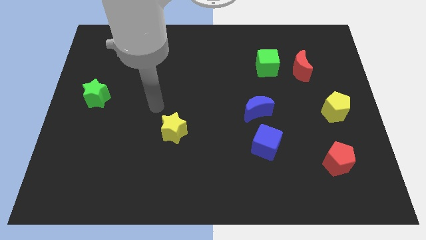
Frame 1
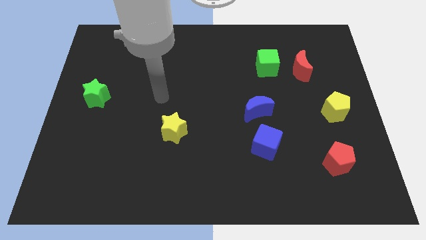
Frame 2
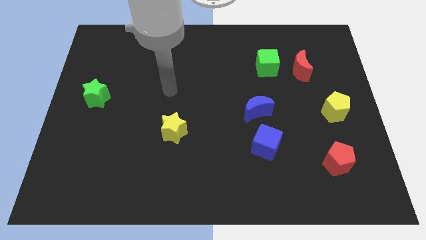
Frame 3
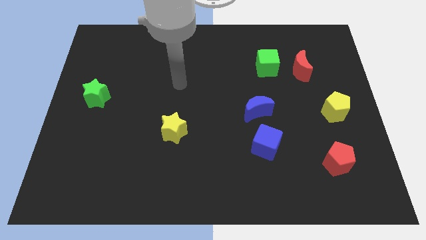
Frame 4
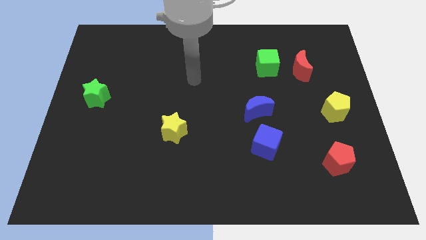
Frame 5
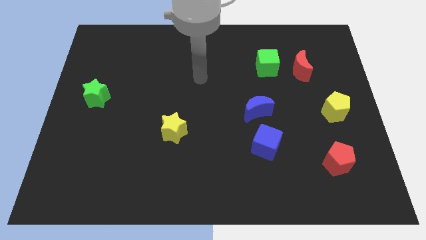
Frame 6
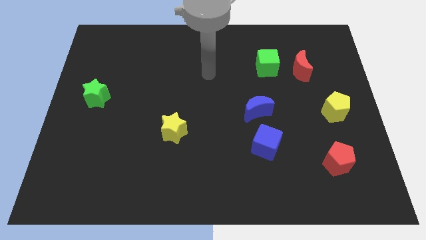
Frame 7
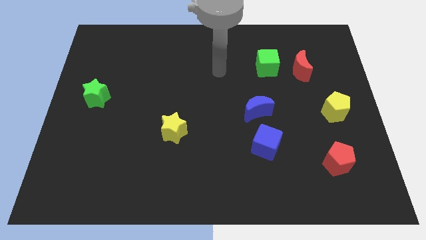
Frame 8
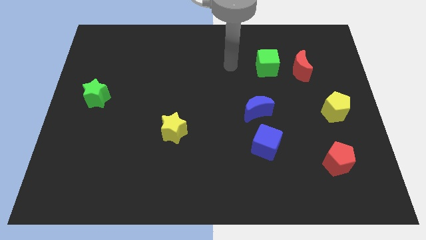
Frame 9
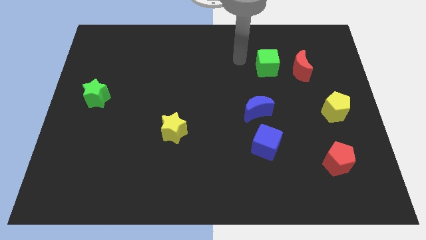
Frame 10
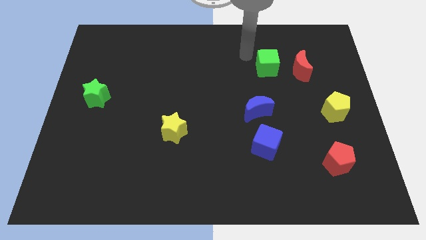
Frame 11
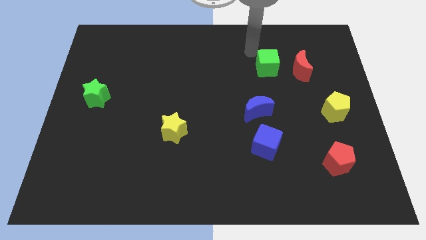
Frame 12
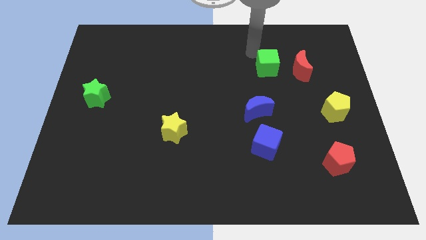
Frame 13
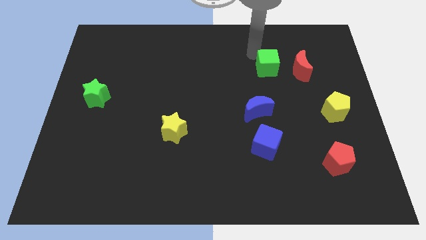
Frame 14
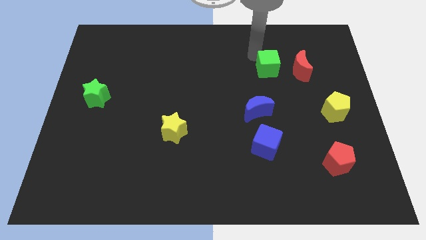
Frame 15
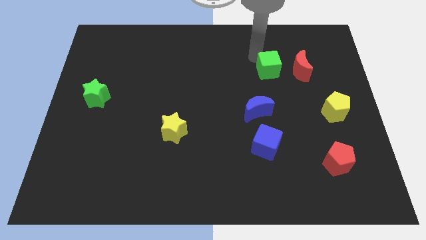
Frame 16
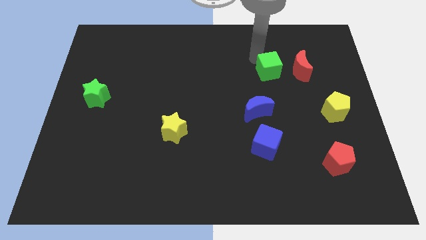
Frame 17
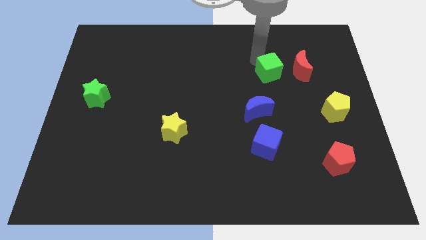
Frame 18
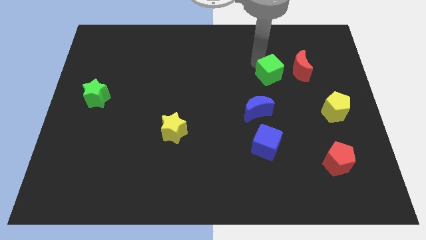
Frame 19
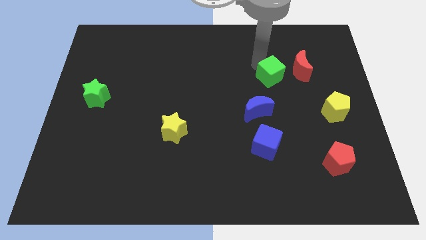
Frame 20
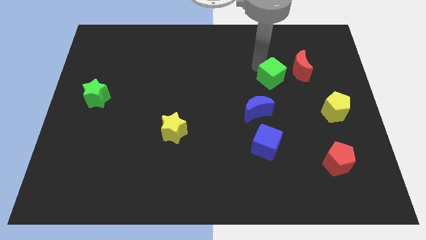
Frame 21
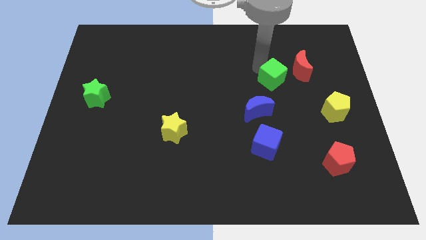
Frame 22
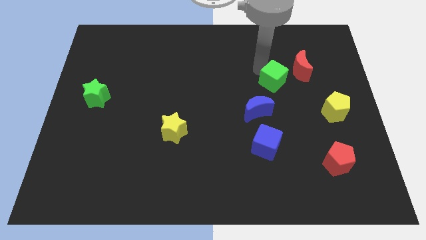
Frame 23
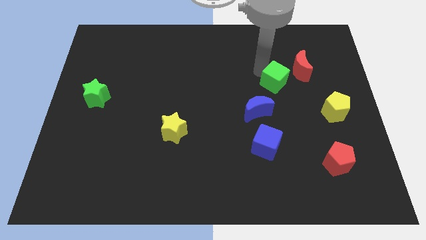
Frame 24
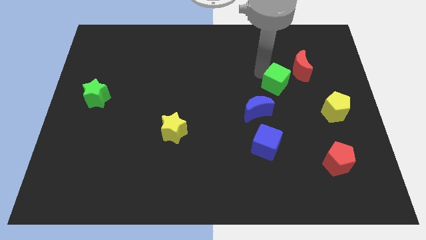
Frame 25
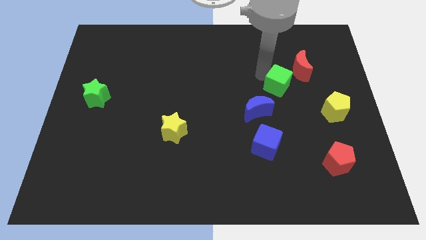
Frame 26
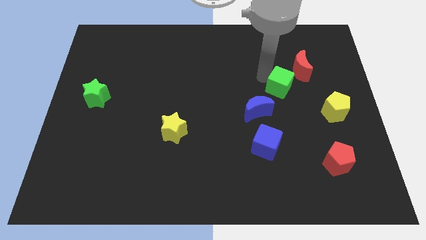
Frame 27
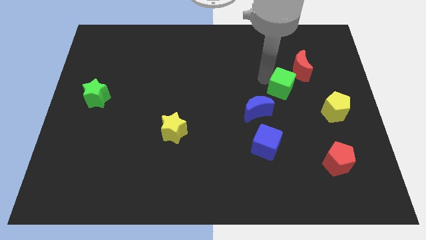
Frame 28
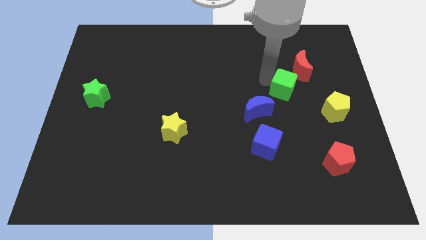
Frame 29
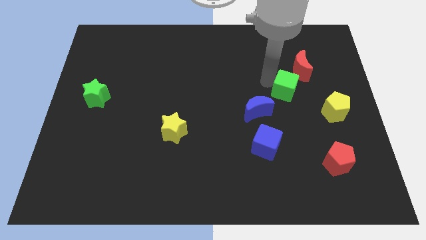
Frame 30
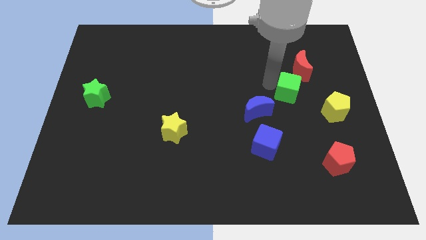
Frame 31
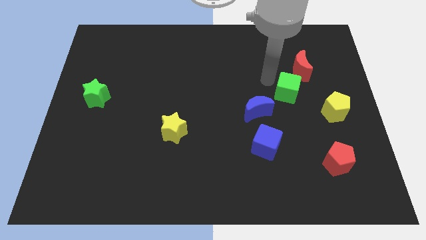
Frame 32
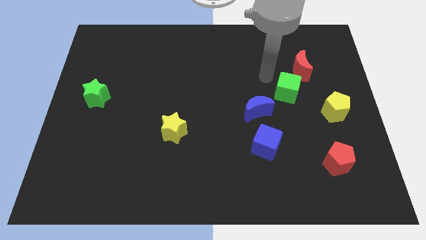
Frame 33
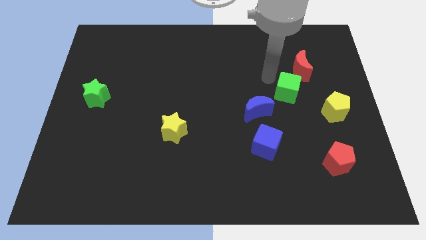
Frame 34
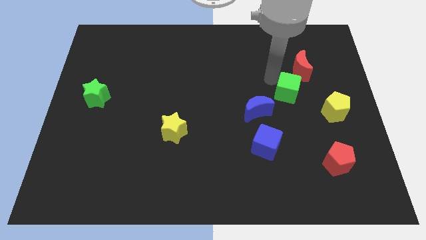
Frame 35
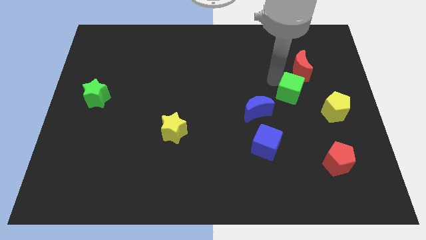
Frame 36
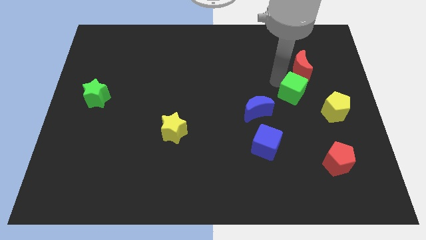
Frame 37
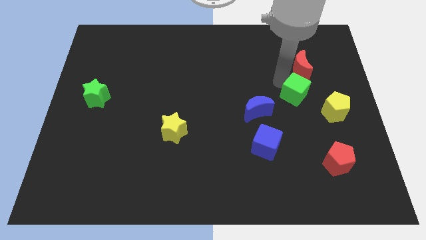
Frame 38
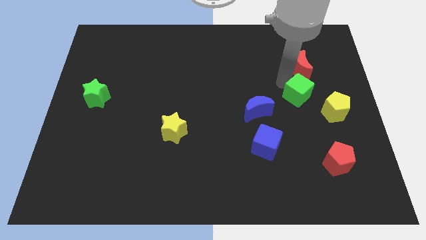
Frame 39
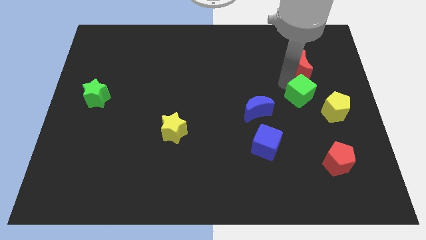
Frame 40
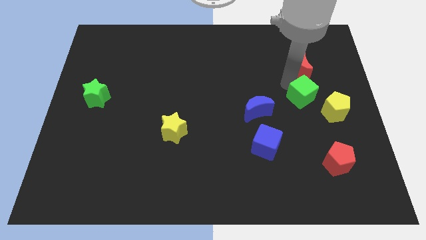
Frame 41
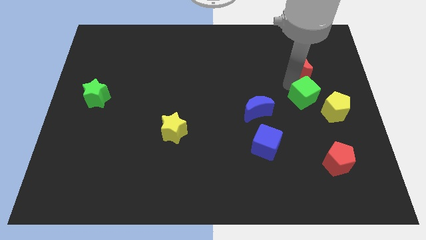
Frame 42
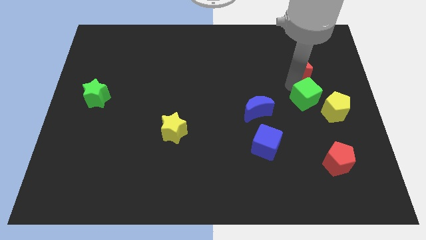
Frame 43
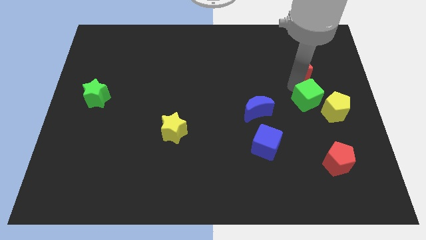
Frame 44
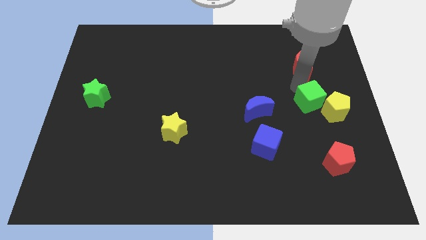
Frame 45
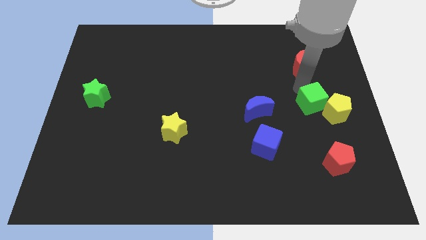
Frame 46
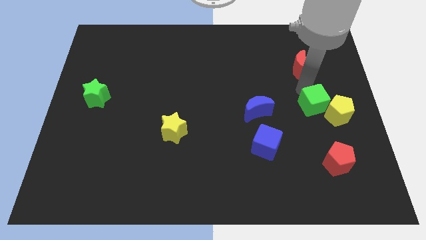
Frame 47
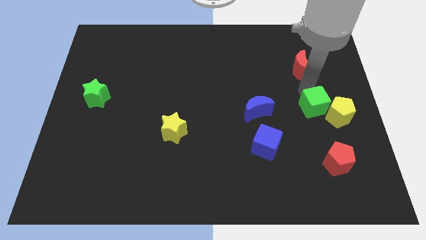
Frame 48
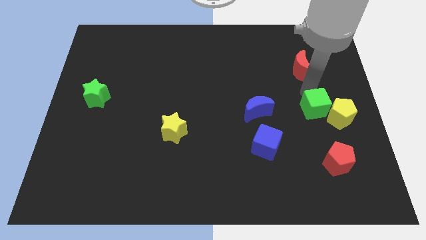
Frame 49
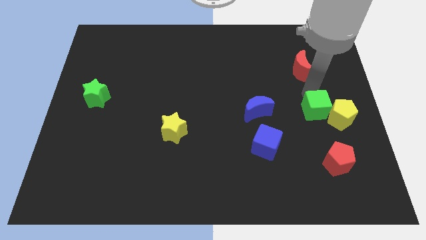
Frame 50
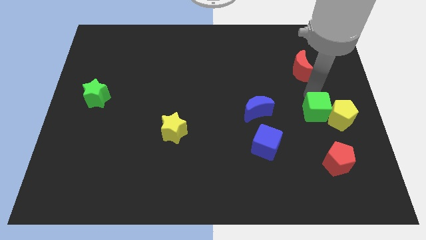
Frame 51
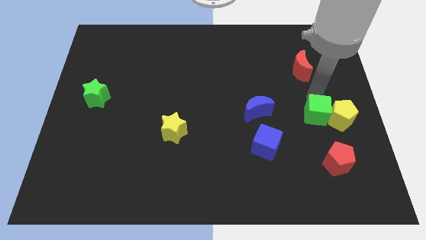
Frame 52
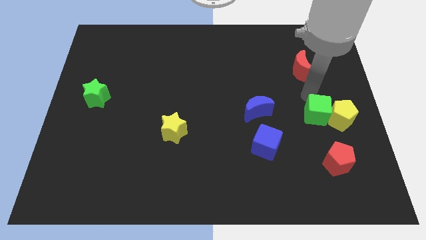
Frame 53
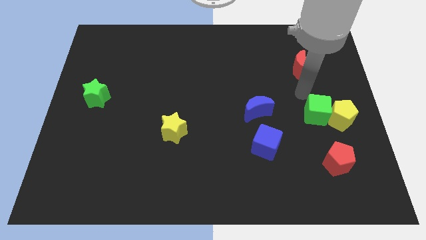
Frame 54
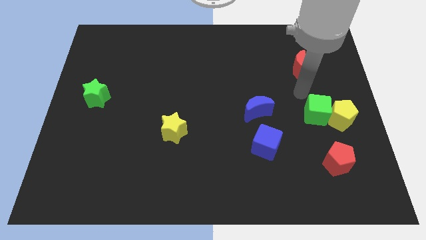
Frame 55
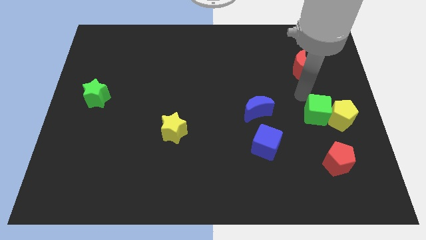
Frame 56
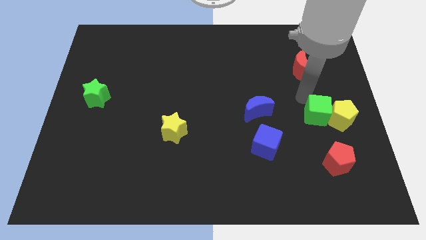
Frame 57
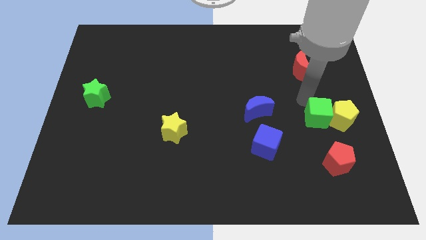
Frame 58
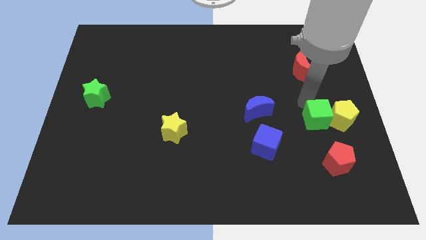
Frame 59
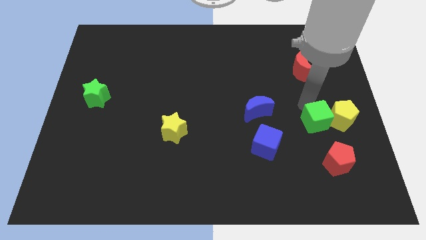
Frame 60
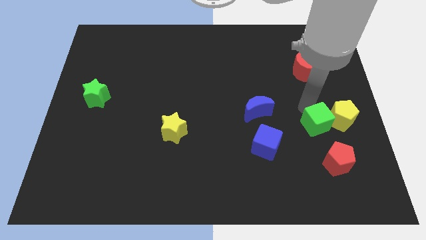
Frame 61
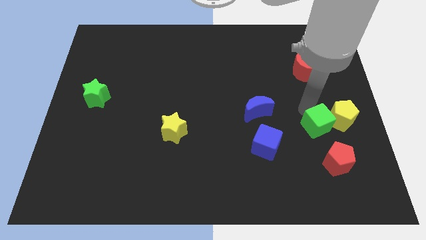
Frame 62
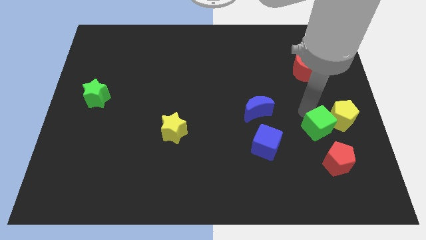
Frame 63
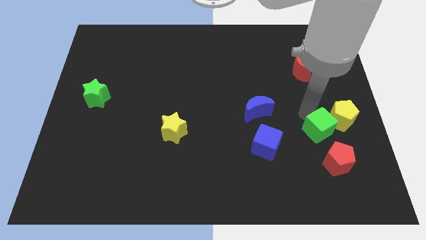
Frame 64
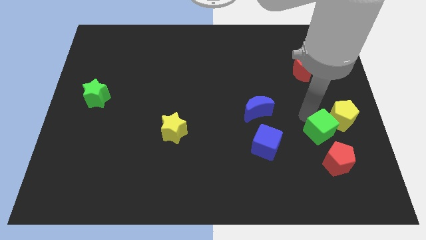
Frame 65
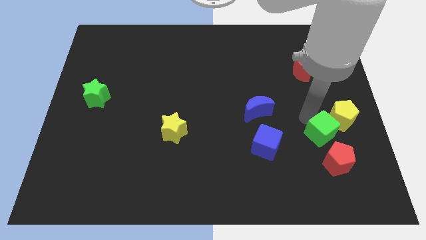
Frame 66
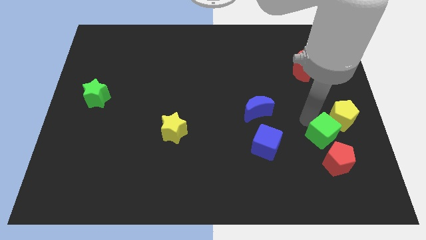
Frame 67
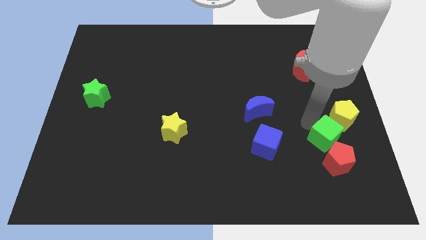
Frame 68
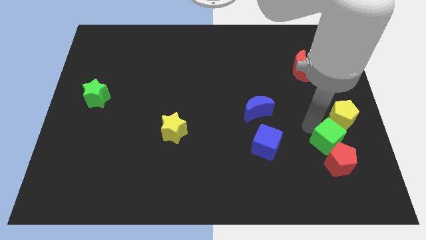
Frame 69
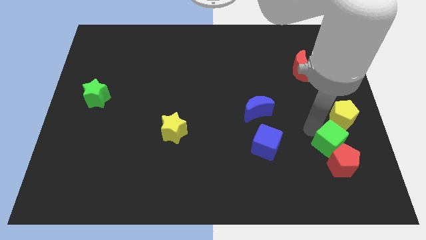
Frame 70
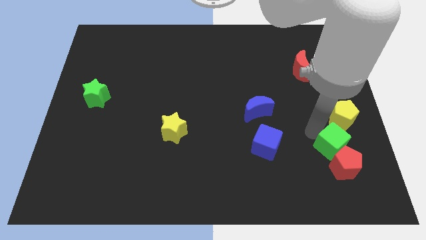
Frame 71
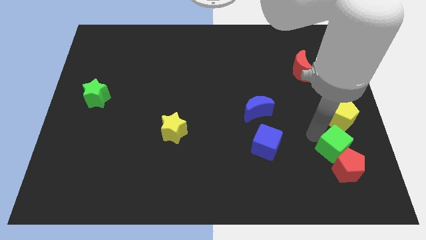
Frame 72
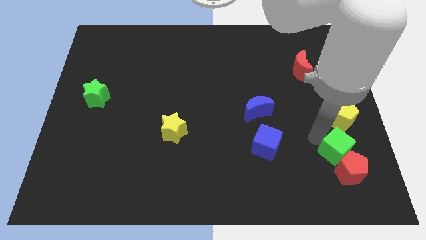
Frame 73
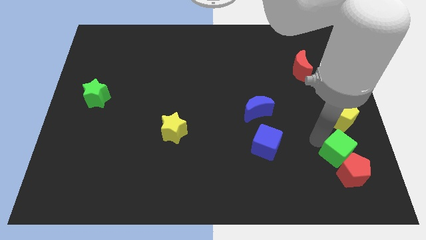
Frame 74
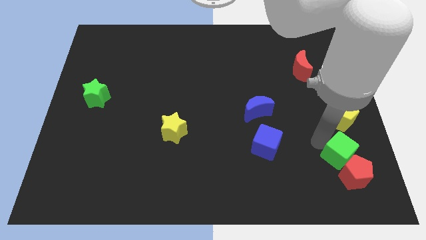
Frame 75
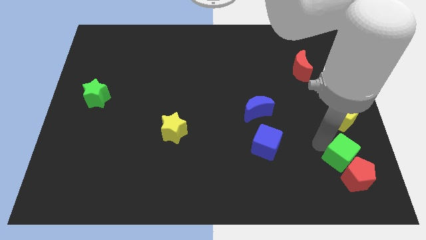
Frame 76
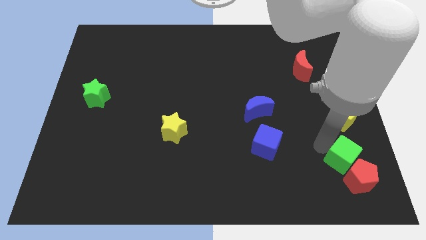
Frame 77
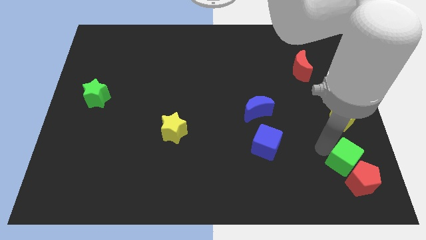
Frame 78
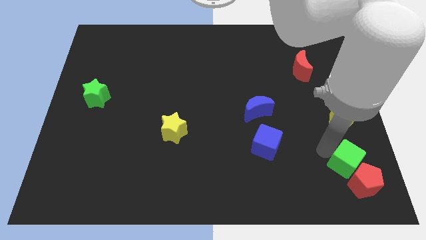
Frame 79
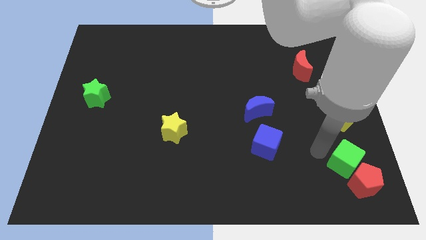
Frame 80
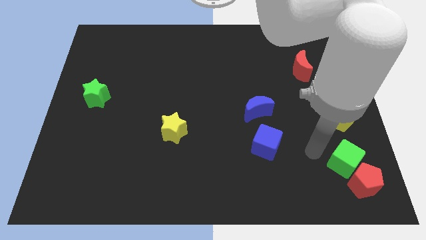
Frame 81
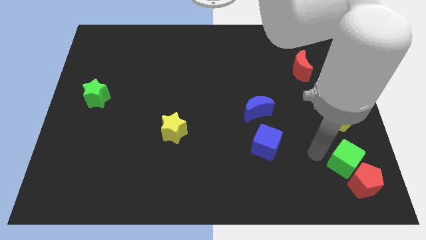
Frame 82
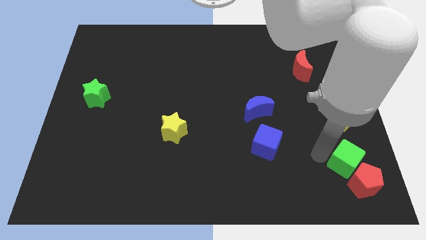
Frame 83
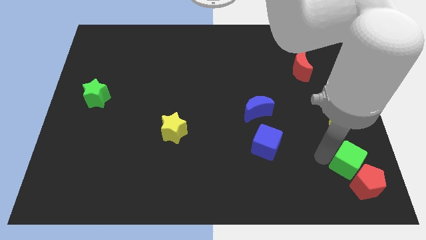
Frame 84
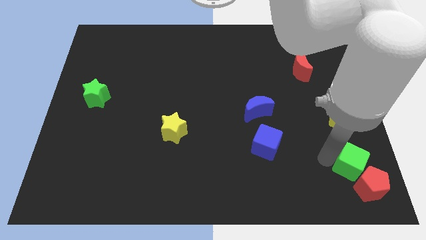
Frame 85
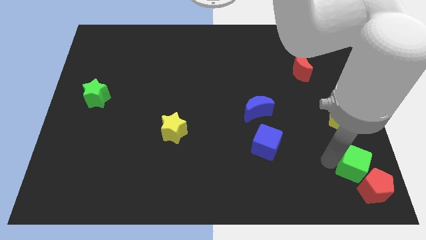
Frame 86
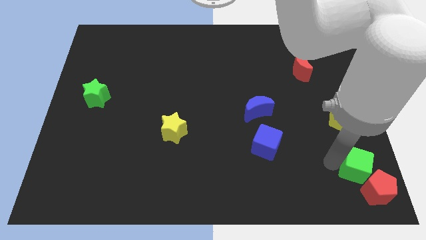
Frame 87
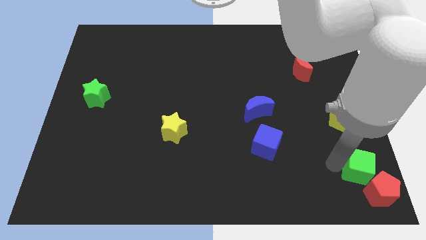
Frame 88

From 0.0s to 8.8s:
move the green cube to the lower right corner
